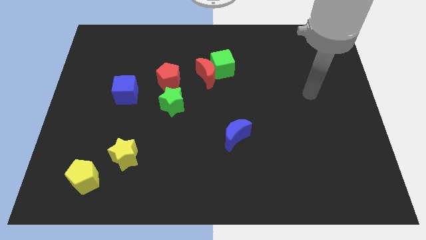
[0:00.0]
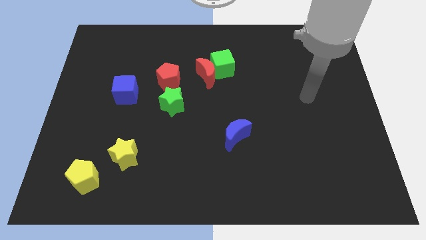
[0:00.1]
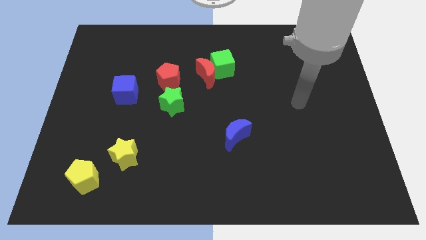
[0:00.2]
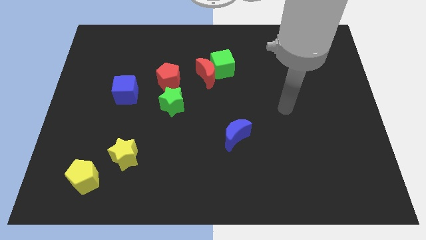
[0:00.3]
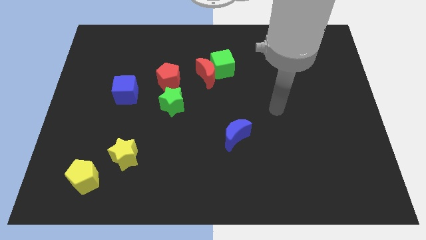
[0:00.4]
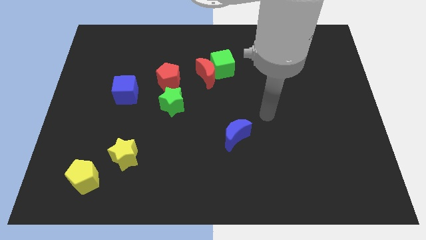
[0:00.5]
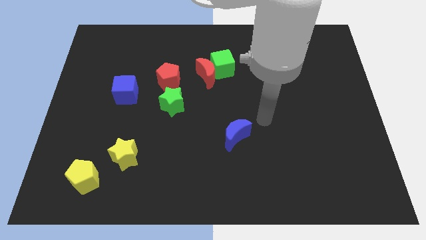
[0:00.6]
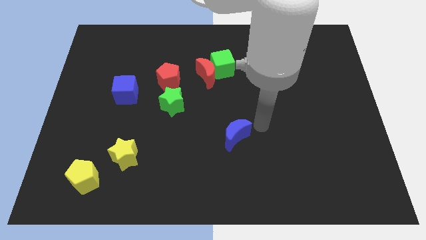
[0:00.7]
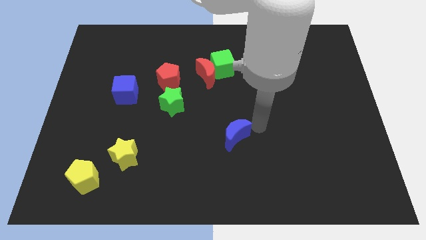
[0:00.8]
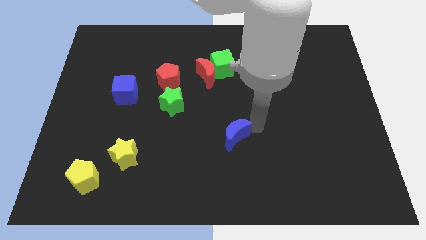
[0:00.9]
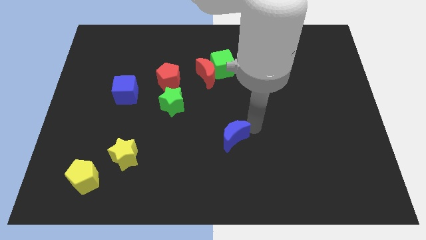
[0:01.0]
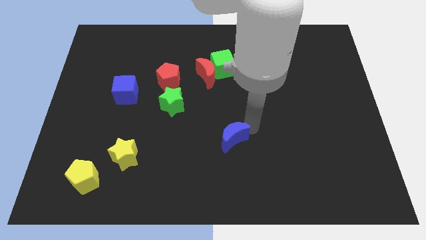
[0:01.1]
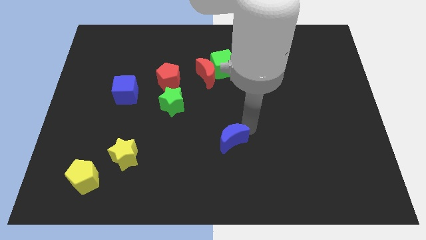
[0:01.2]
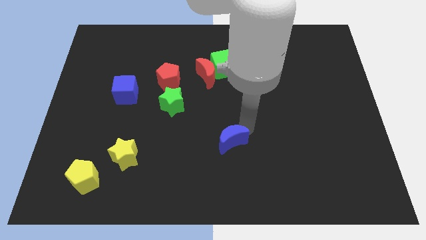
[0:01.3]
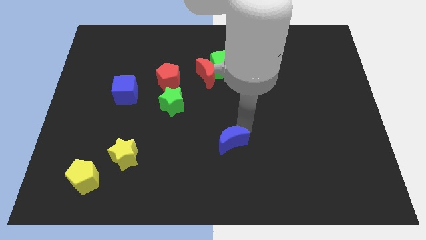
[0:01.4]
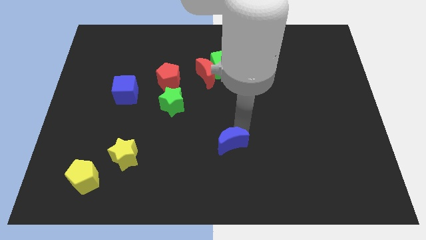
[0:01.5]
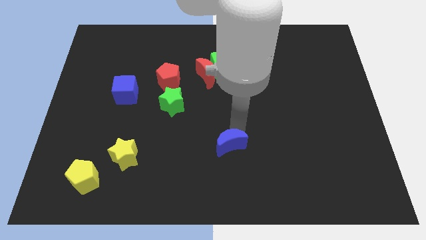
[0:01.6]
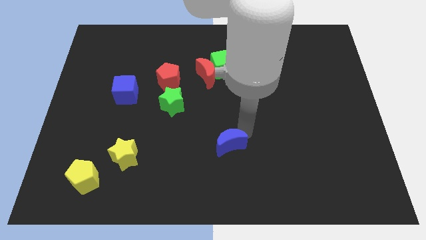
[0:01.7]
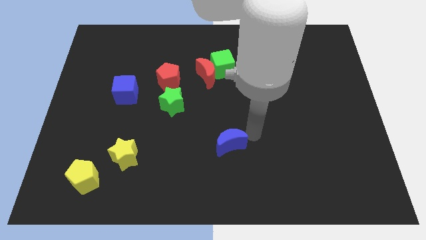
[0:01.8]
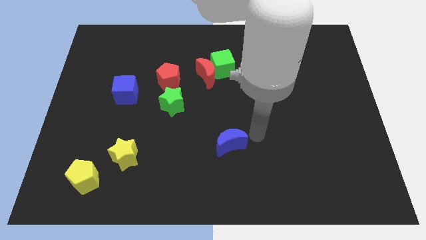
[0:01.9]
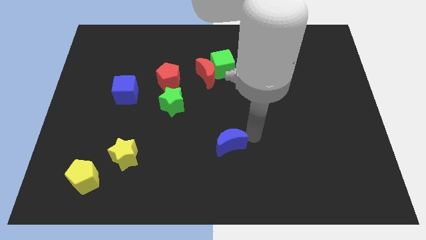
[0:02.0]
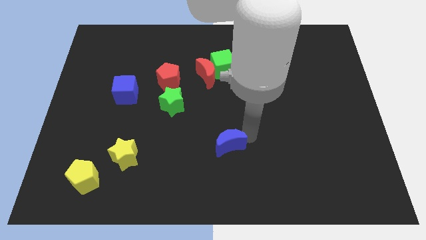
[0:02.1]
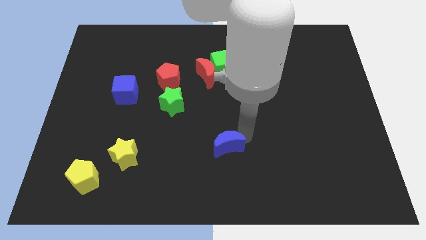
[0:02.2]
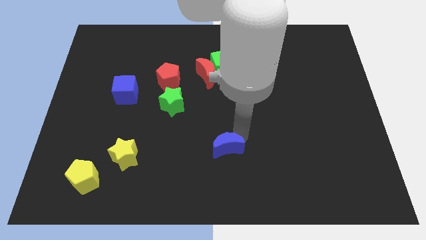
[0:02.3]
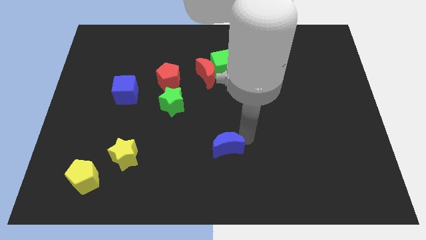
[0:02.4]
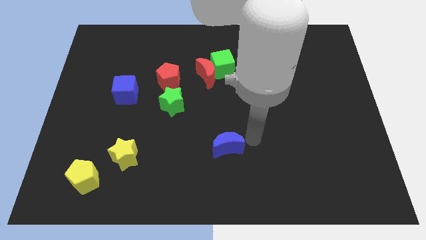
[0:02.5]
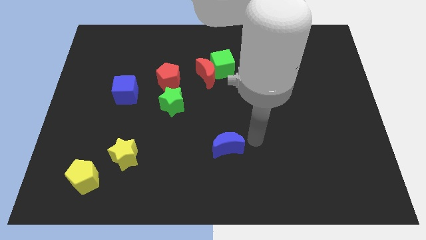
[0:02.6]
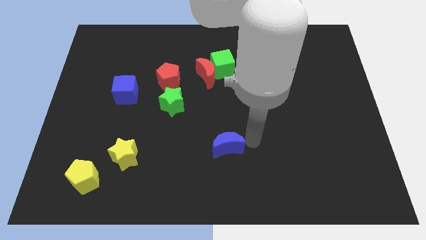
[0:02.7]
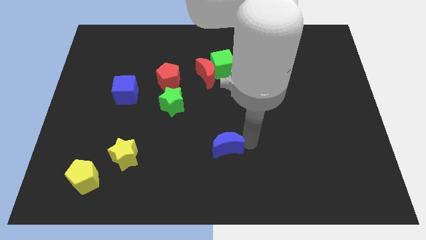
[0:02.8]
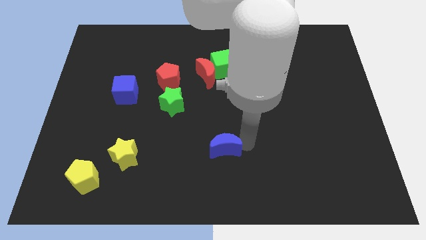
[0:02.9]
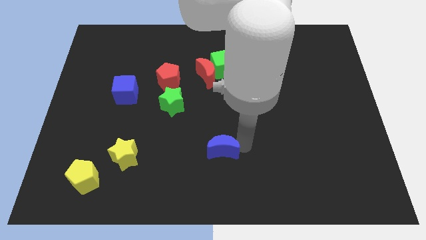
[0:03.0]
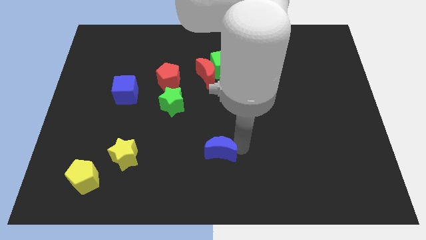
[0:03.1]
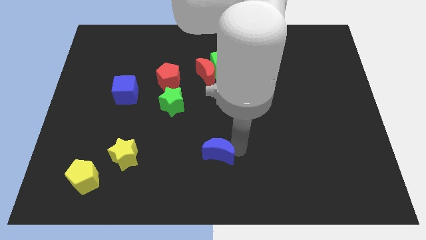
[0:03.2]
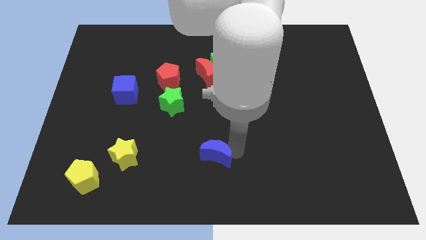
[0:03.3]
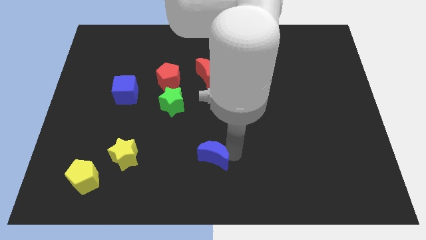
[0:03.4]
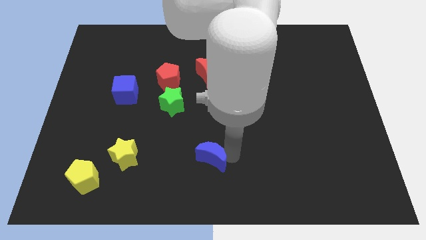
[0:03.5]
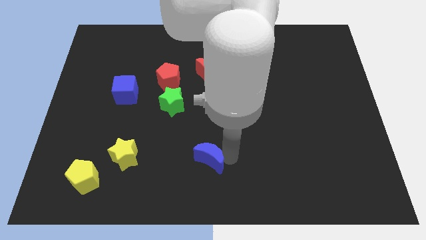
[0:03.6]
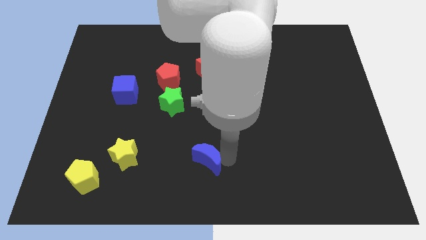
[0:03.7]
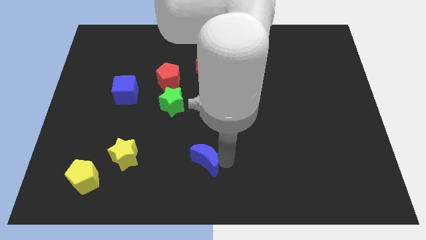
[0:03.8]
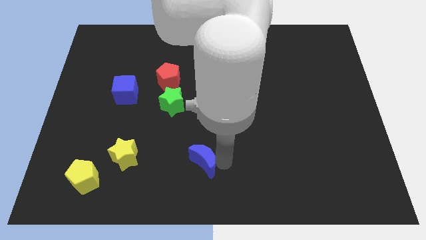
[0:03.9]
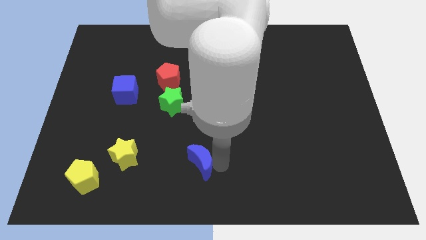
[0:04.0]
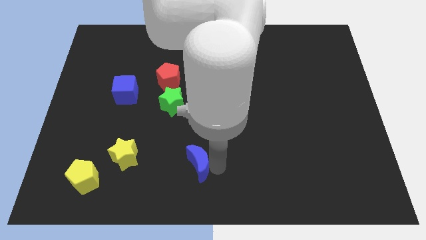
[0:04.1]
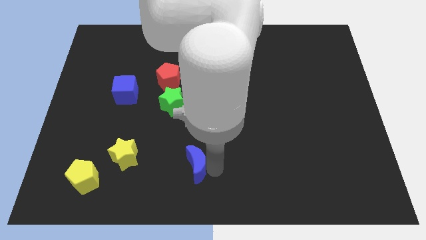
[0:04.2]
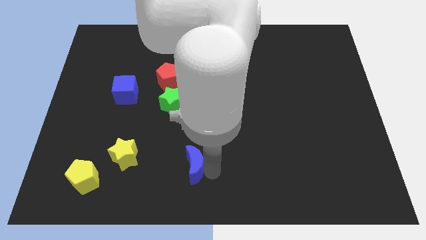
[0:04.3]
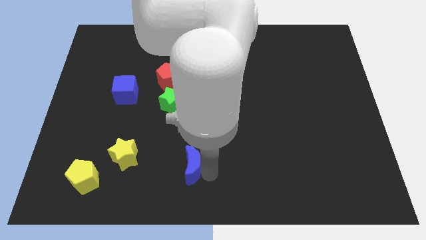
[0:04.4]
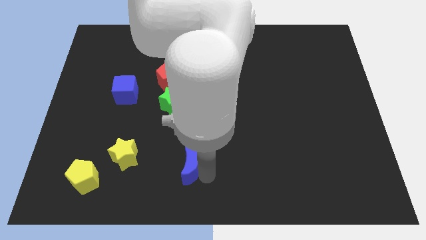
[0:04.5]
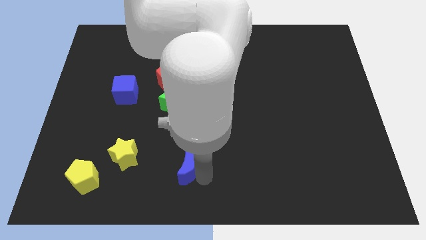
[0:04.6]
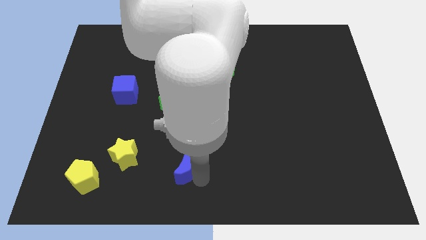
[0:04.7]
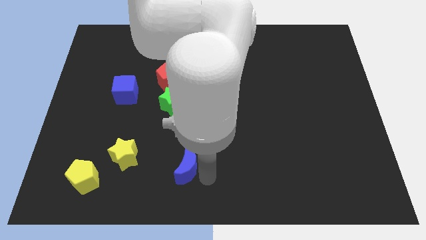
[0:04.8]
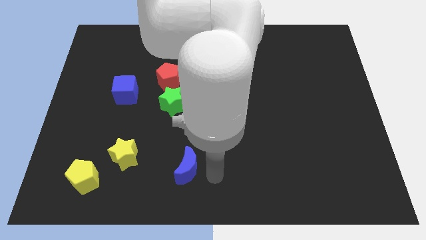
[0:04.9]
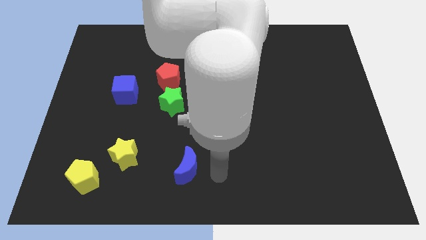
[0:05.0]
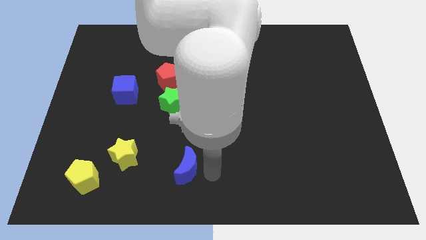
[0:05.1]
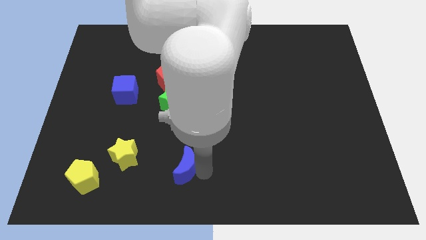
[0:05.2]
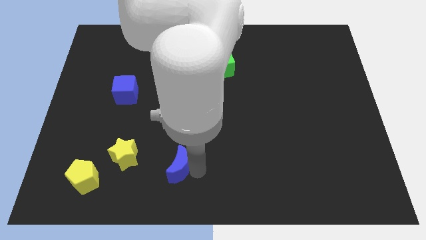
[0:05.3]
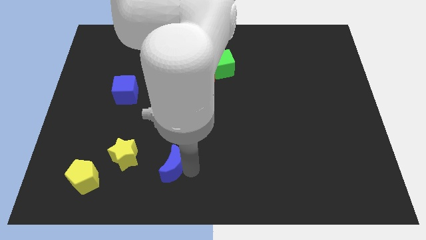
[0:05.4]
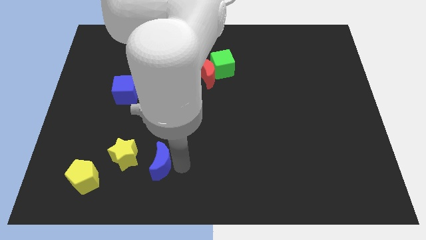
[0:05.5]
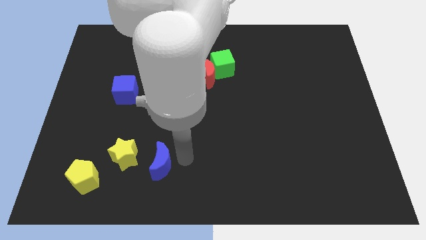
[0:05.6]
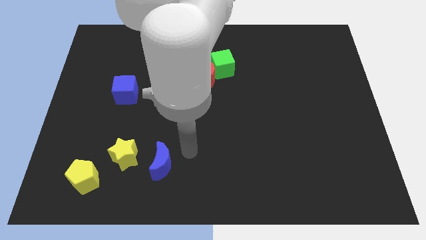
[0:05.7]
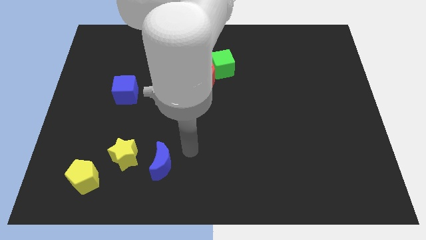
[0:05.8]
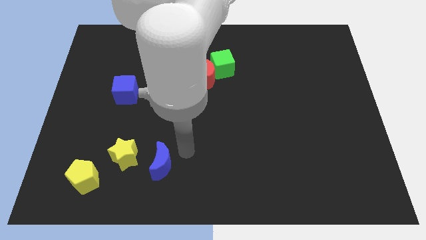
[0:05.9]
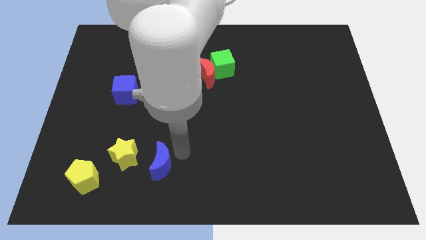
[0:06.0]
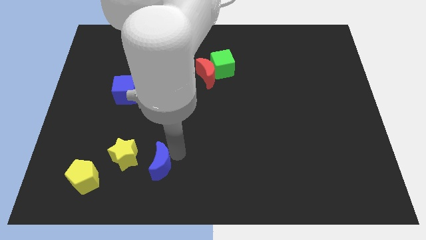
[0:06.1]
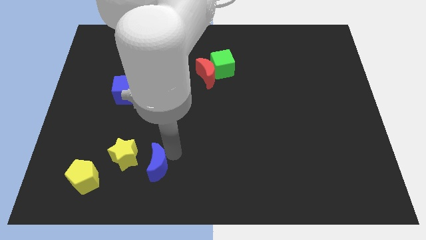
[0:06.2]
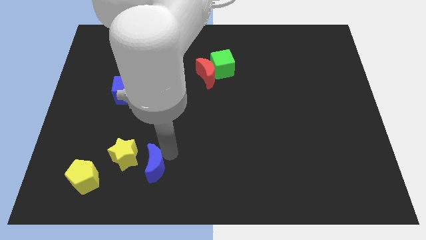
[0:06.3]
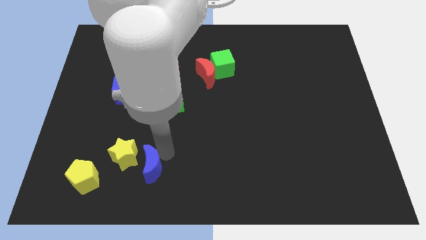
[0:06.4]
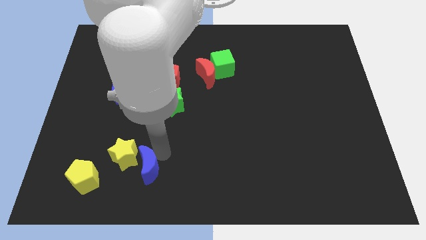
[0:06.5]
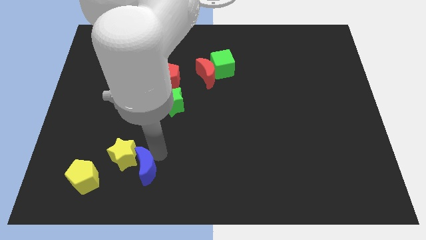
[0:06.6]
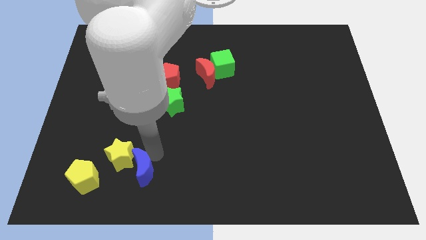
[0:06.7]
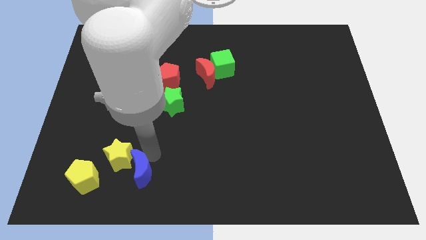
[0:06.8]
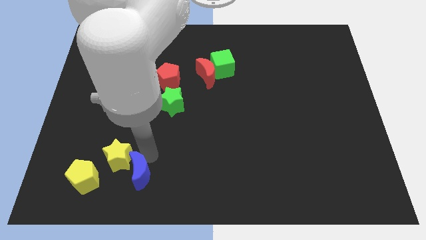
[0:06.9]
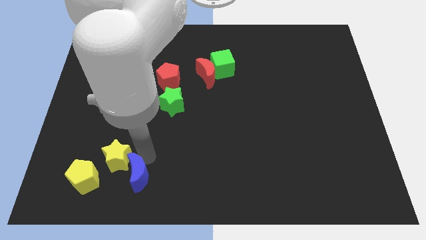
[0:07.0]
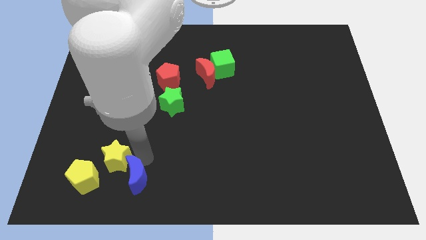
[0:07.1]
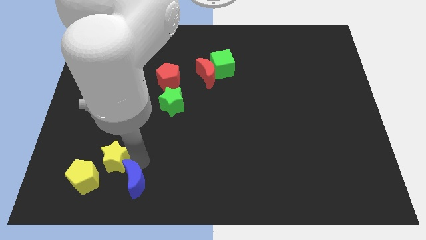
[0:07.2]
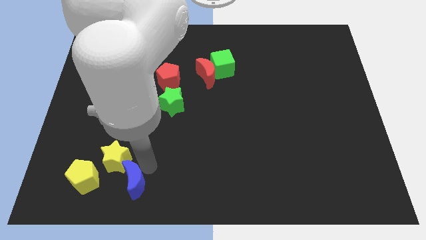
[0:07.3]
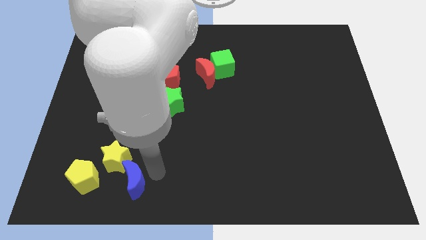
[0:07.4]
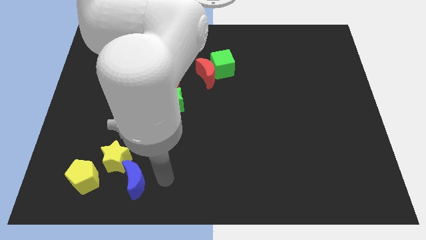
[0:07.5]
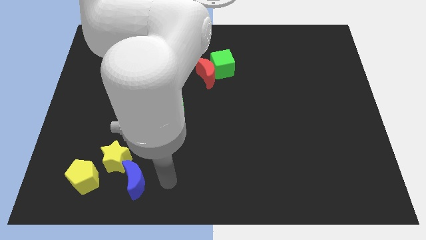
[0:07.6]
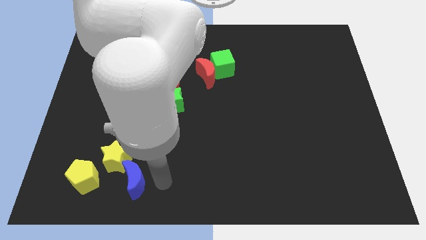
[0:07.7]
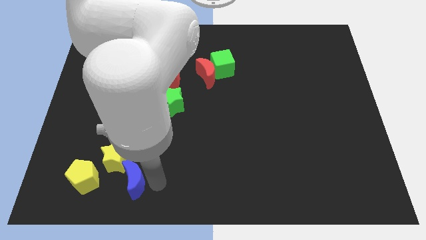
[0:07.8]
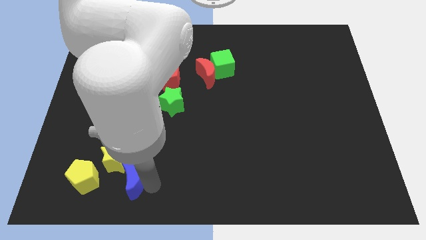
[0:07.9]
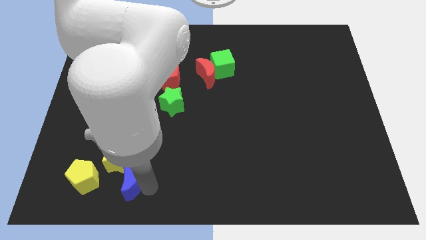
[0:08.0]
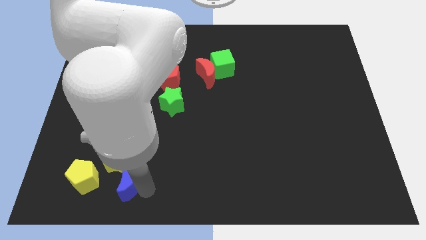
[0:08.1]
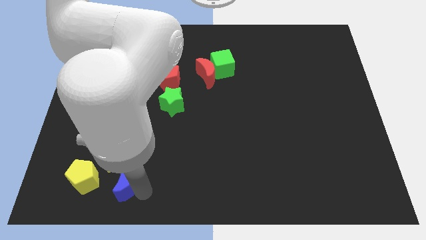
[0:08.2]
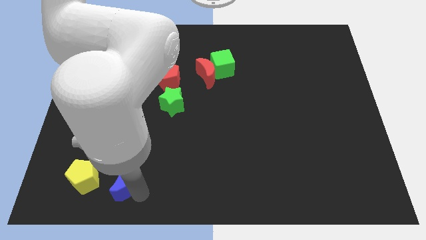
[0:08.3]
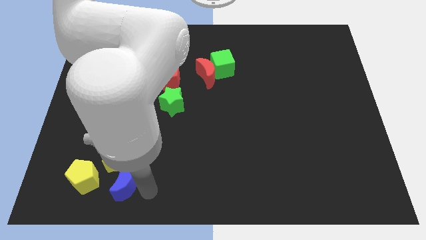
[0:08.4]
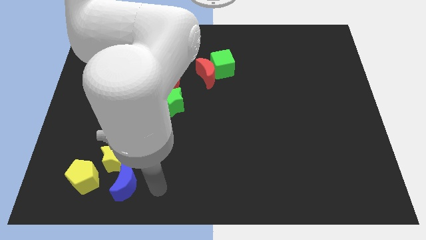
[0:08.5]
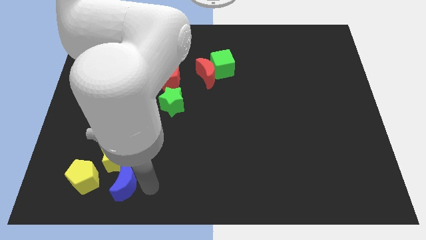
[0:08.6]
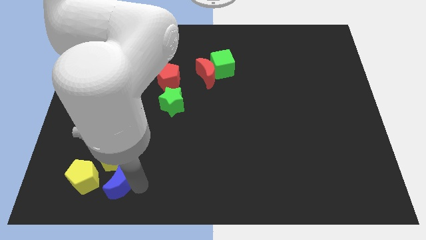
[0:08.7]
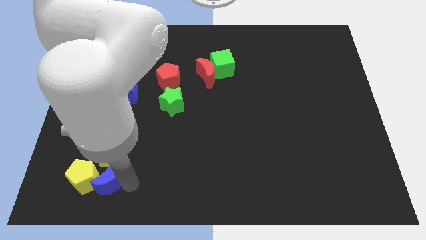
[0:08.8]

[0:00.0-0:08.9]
push the blue moon towards the yellow pentagon
